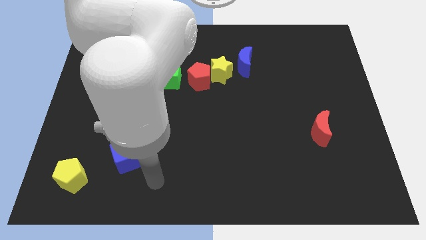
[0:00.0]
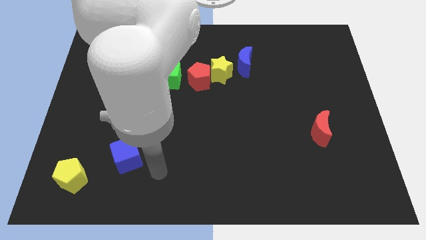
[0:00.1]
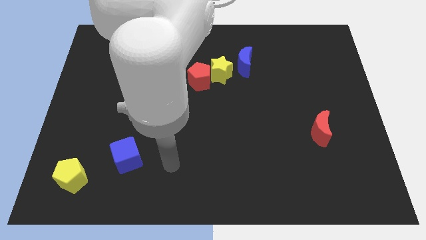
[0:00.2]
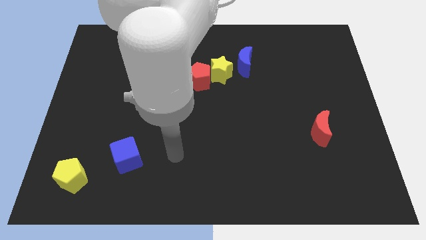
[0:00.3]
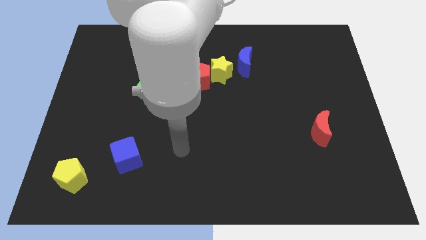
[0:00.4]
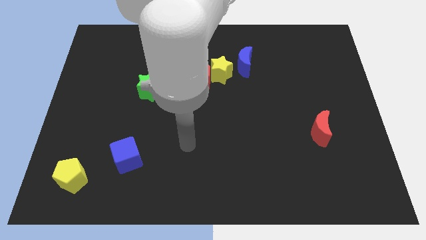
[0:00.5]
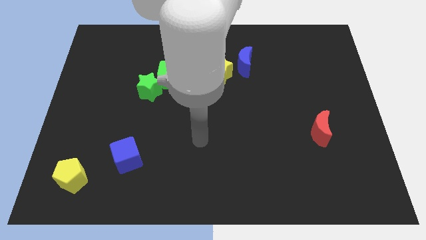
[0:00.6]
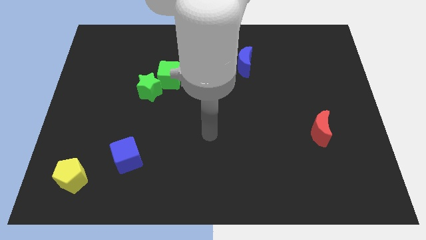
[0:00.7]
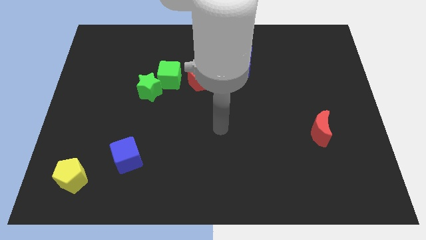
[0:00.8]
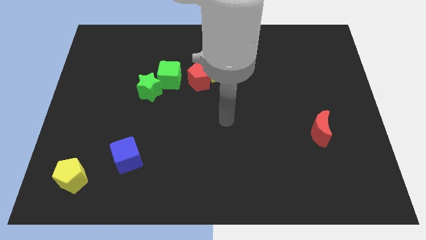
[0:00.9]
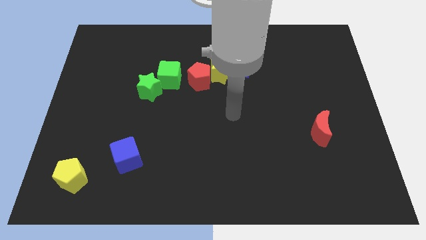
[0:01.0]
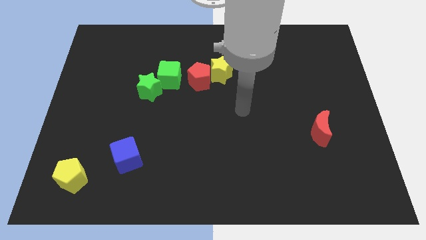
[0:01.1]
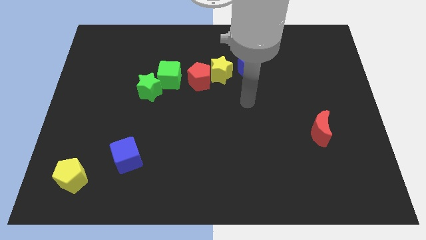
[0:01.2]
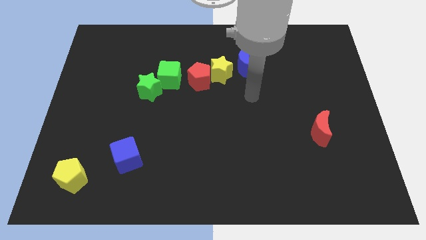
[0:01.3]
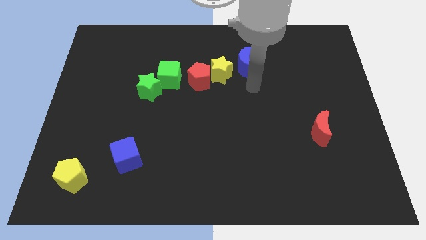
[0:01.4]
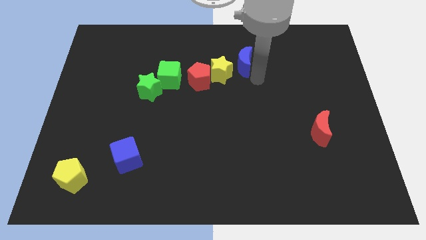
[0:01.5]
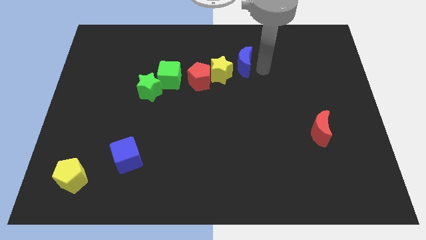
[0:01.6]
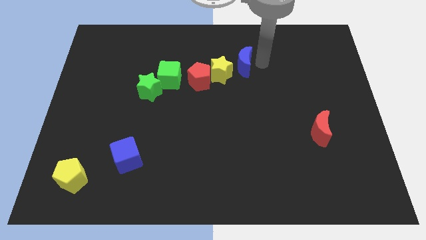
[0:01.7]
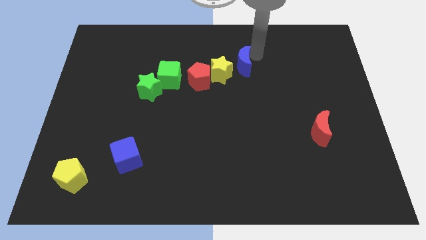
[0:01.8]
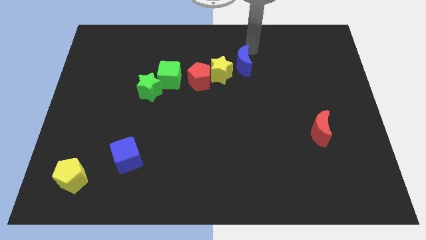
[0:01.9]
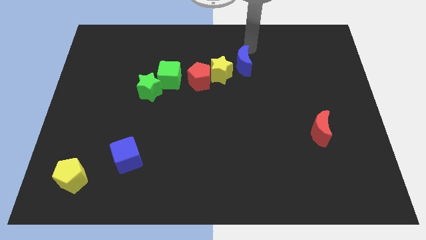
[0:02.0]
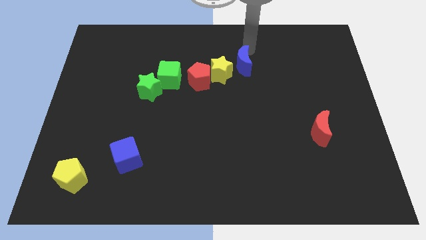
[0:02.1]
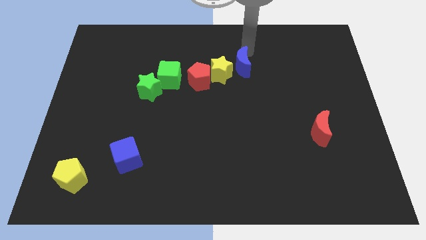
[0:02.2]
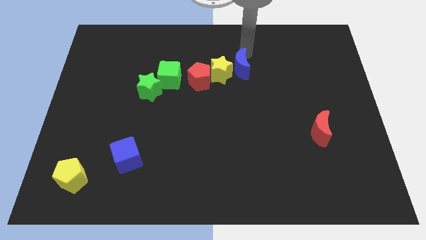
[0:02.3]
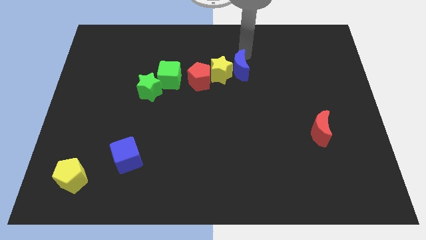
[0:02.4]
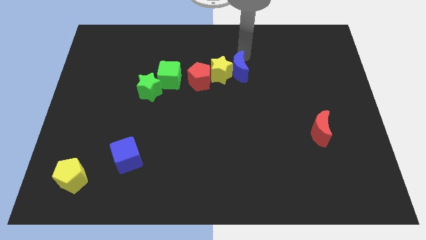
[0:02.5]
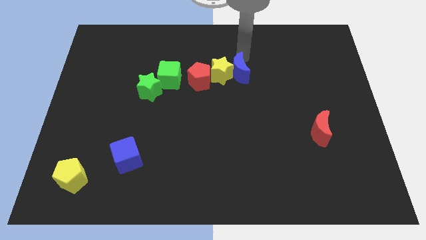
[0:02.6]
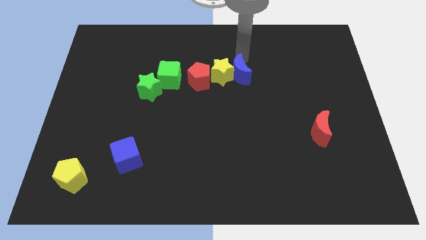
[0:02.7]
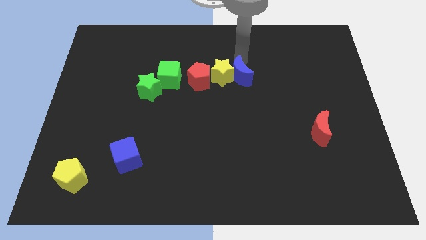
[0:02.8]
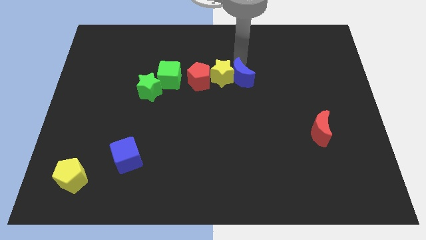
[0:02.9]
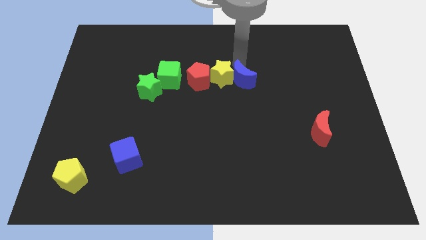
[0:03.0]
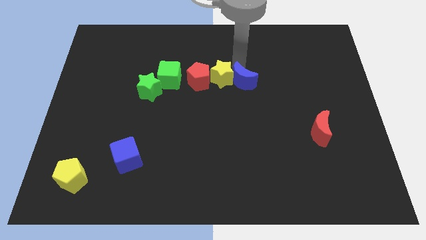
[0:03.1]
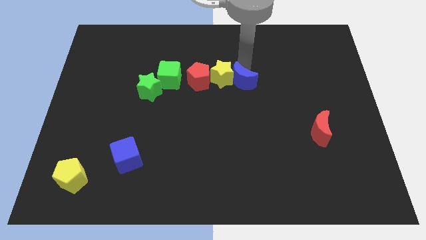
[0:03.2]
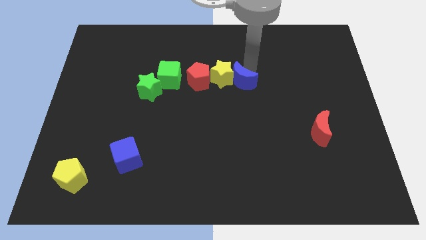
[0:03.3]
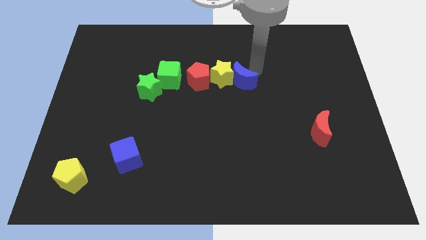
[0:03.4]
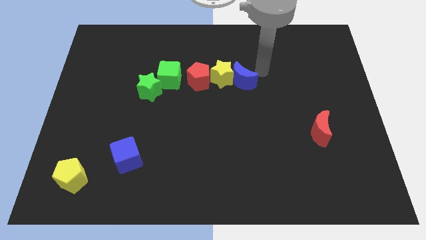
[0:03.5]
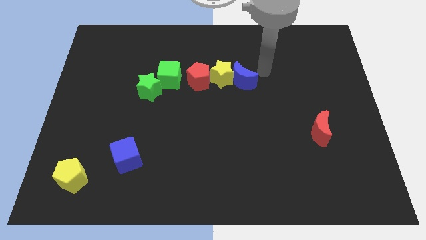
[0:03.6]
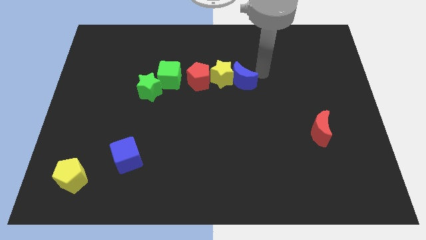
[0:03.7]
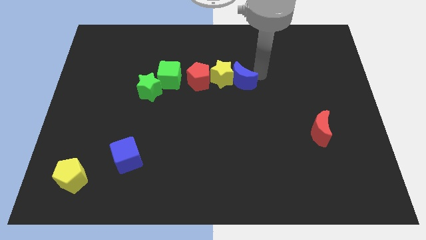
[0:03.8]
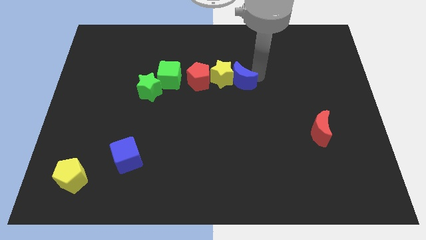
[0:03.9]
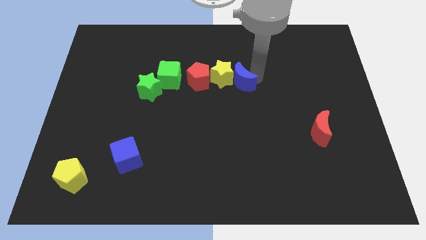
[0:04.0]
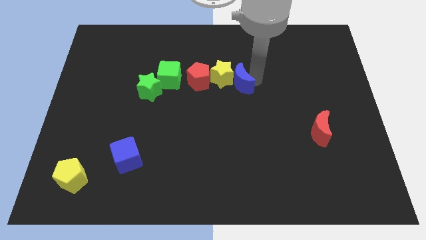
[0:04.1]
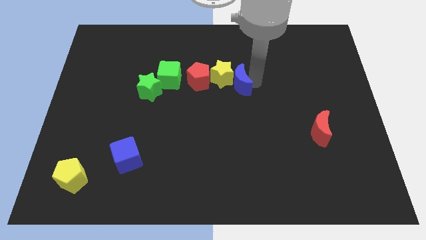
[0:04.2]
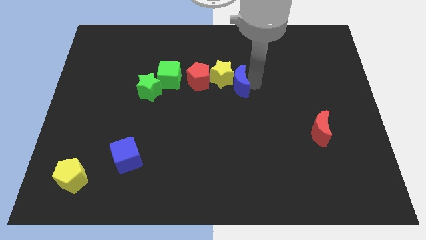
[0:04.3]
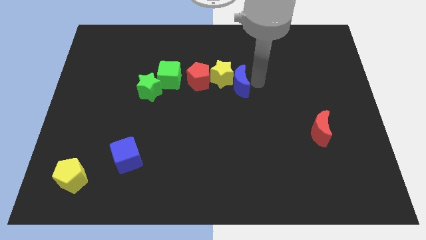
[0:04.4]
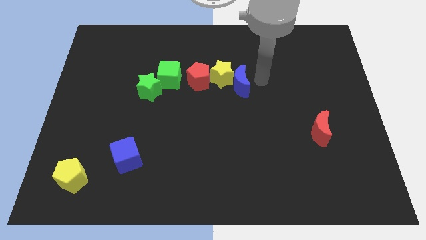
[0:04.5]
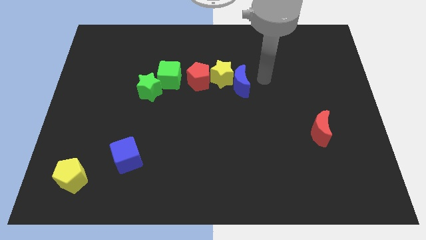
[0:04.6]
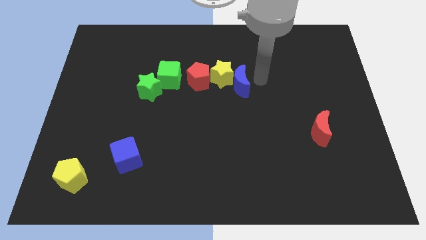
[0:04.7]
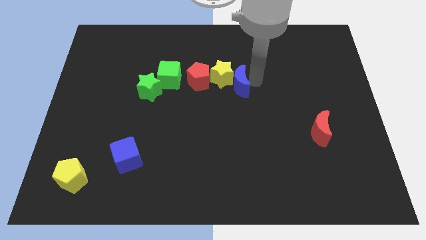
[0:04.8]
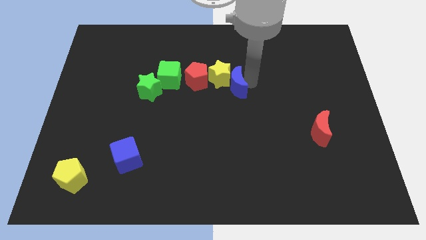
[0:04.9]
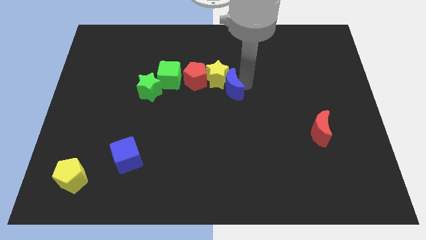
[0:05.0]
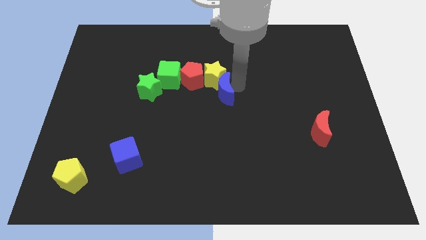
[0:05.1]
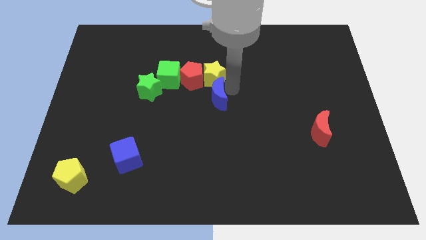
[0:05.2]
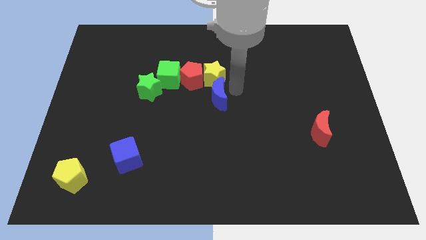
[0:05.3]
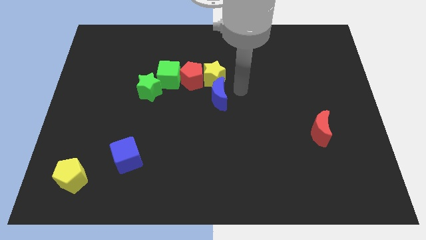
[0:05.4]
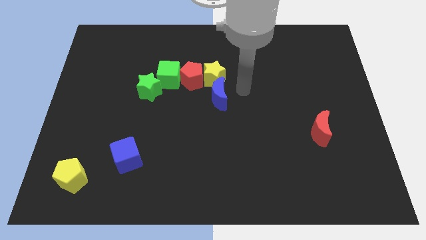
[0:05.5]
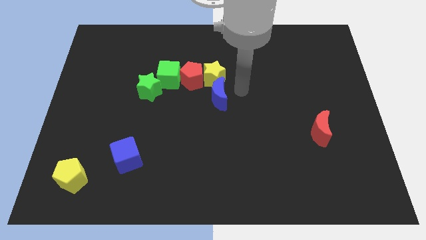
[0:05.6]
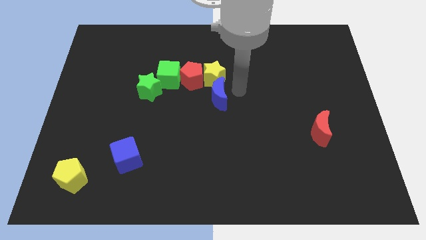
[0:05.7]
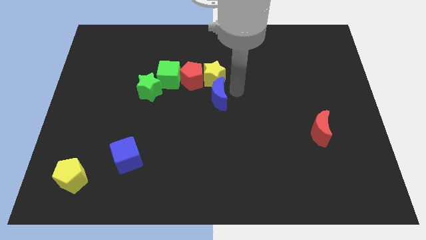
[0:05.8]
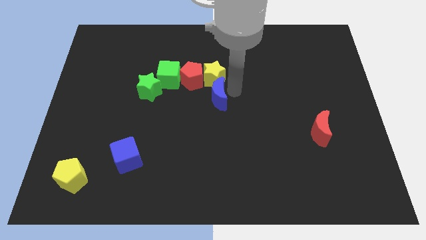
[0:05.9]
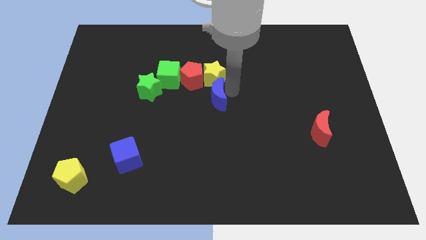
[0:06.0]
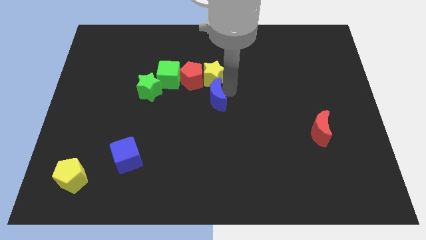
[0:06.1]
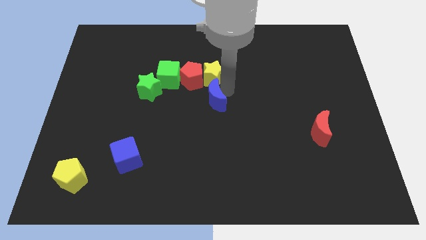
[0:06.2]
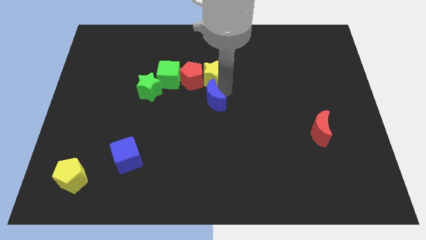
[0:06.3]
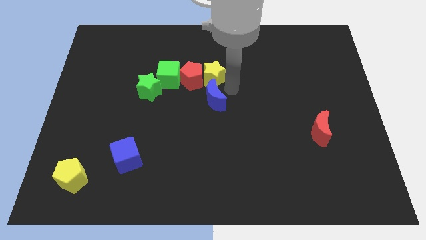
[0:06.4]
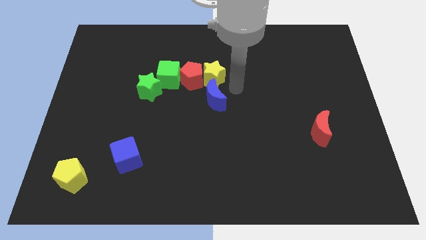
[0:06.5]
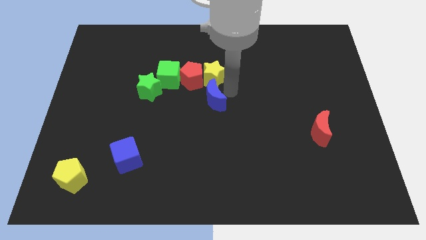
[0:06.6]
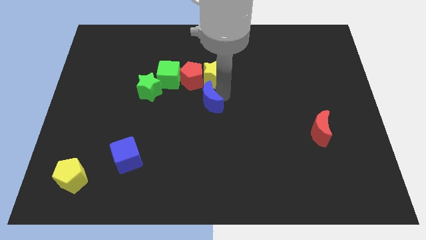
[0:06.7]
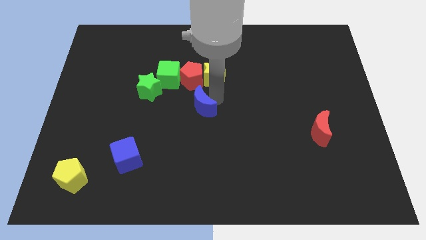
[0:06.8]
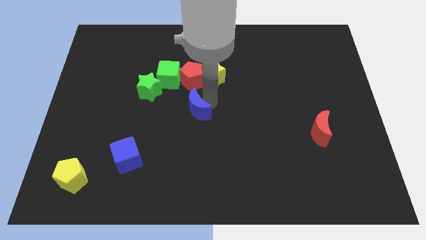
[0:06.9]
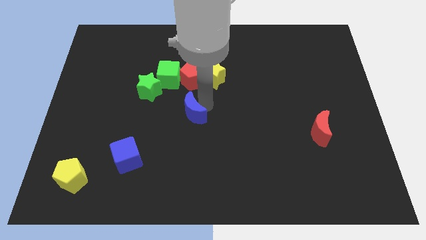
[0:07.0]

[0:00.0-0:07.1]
slide the blue moon diagonally down and left

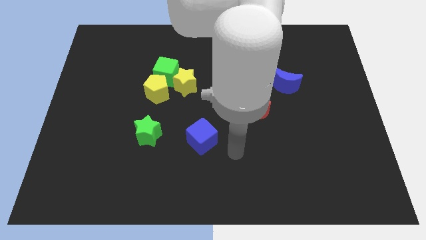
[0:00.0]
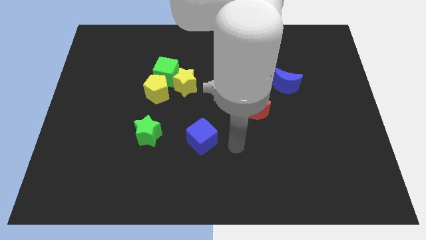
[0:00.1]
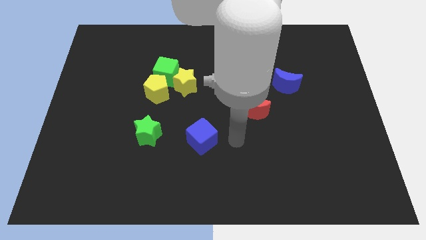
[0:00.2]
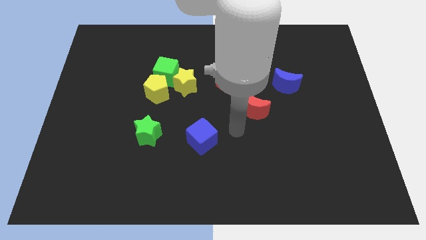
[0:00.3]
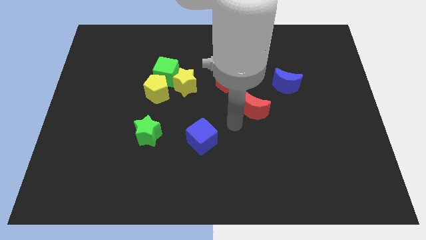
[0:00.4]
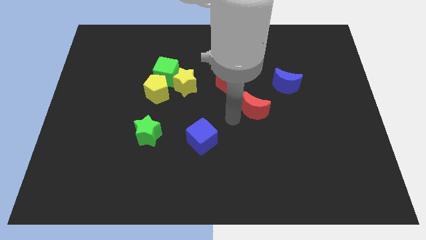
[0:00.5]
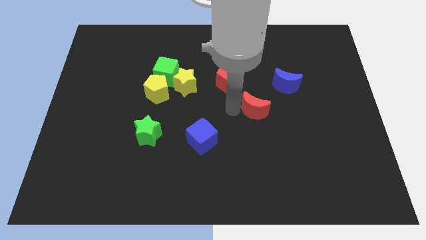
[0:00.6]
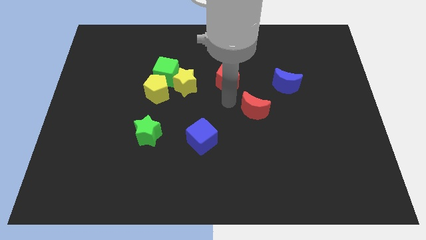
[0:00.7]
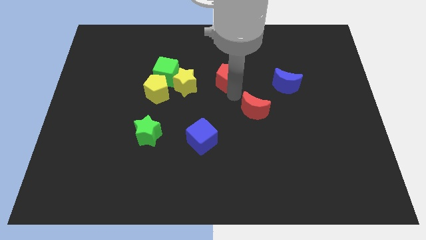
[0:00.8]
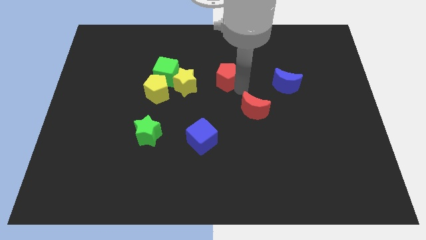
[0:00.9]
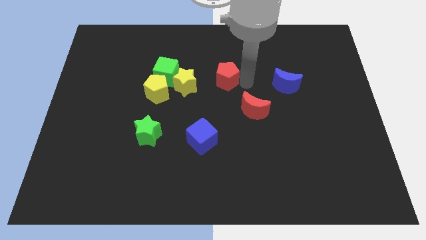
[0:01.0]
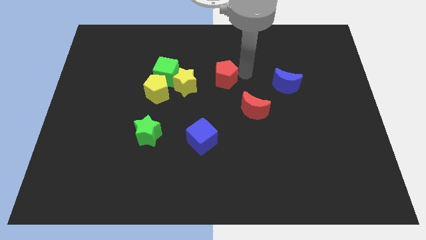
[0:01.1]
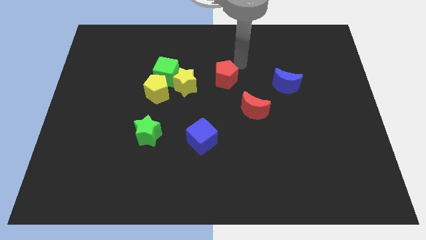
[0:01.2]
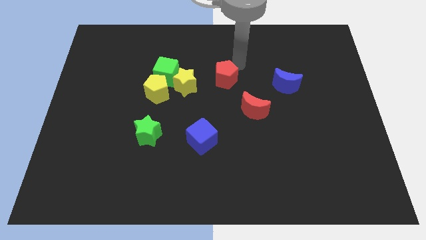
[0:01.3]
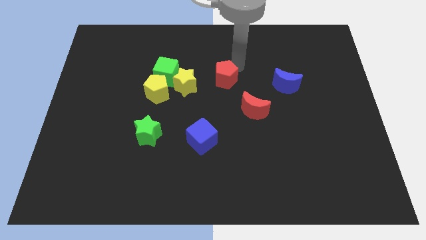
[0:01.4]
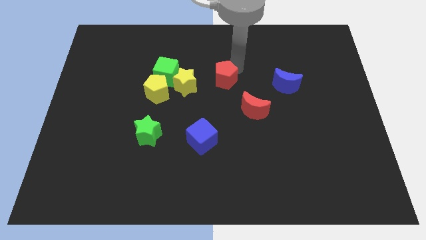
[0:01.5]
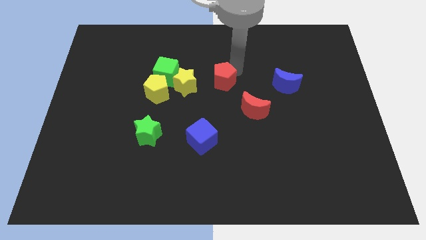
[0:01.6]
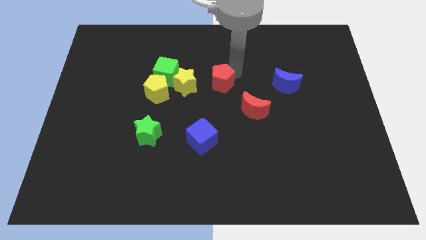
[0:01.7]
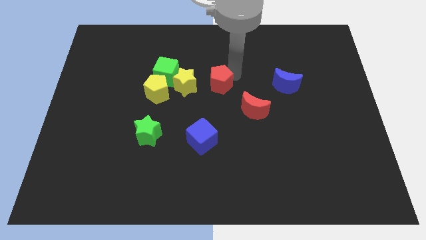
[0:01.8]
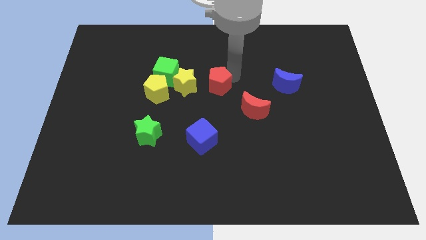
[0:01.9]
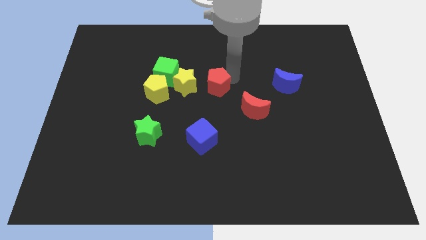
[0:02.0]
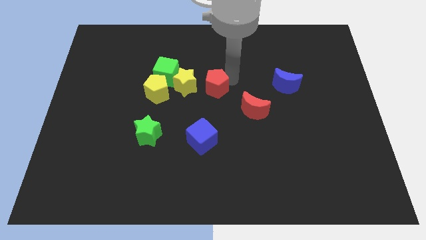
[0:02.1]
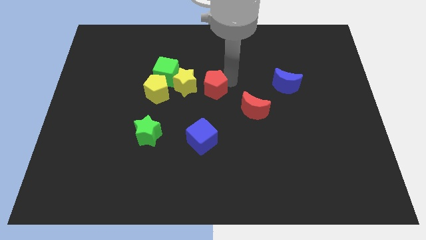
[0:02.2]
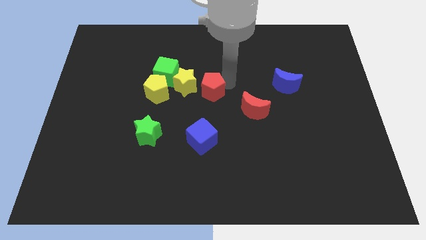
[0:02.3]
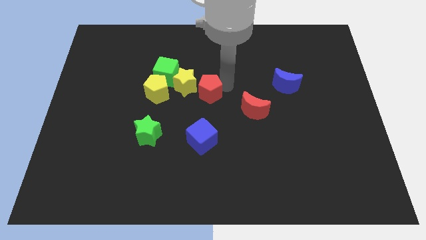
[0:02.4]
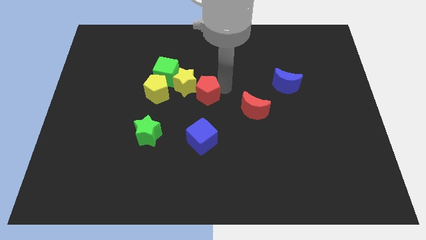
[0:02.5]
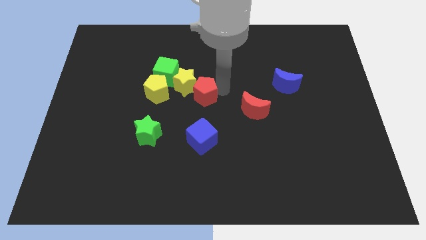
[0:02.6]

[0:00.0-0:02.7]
slightly push the red pentagon downwards and then to the left
